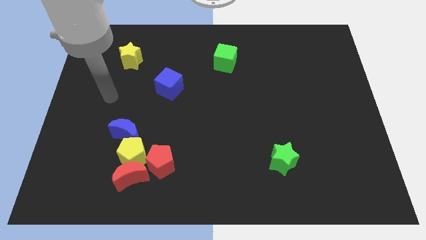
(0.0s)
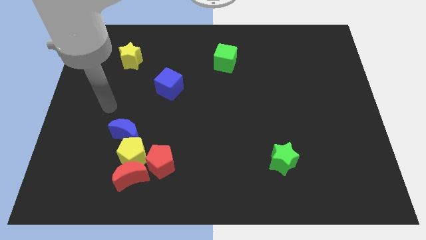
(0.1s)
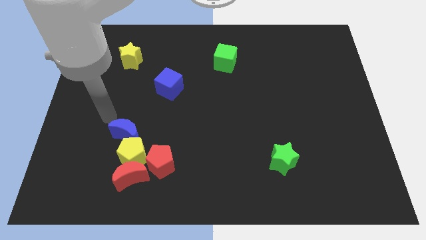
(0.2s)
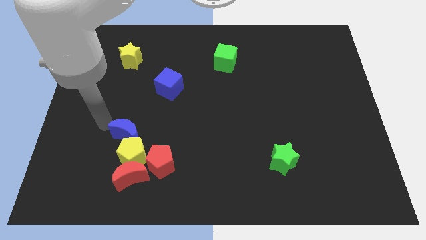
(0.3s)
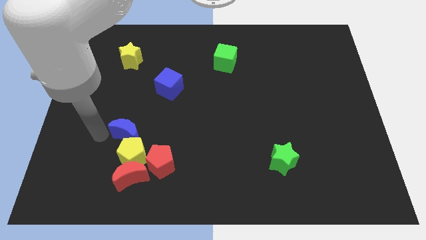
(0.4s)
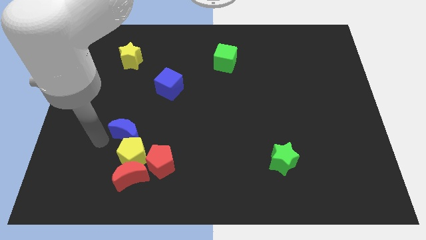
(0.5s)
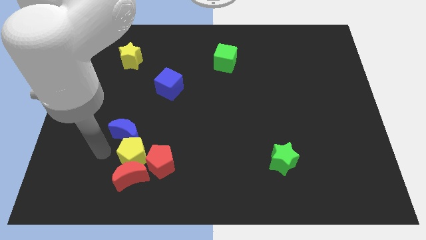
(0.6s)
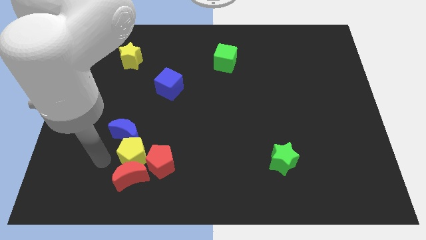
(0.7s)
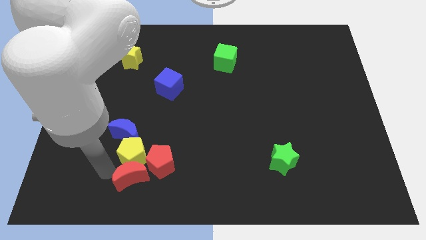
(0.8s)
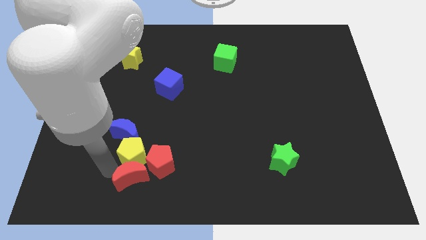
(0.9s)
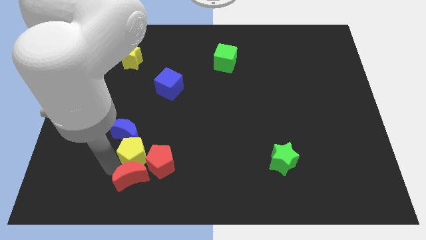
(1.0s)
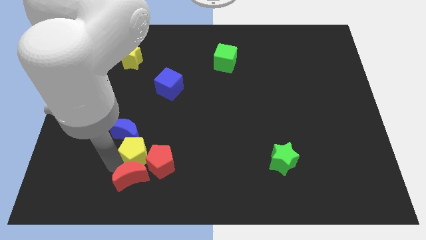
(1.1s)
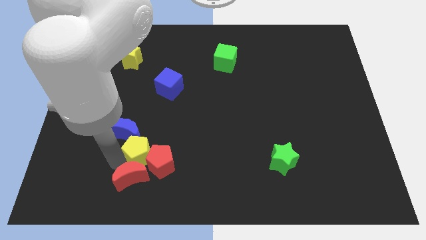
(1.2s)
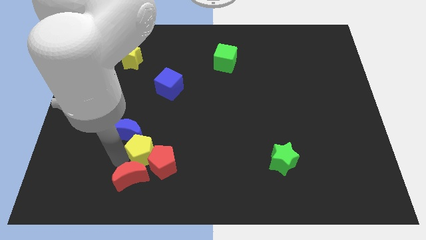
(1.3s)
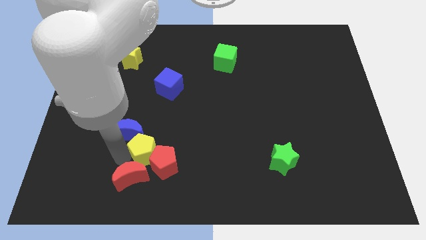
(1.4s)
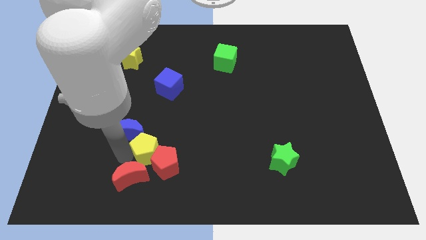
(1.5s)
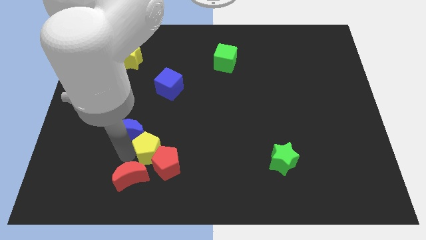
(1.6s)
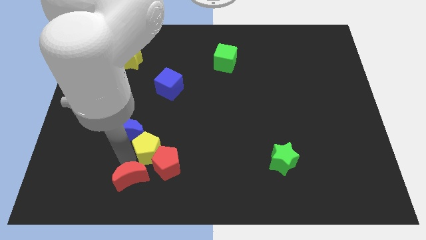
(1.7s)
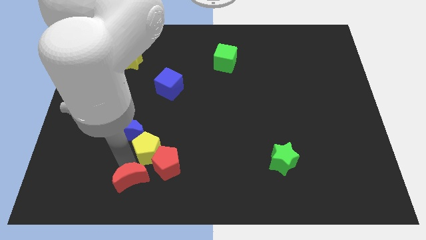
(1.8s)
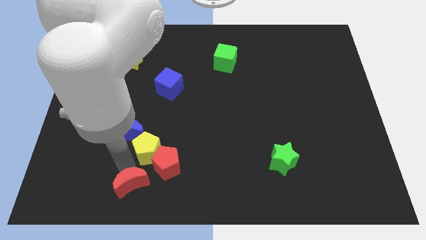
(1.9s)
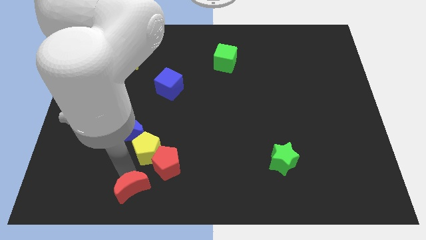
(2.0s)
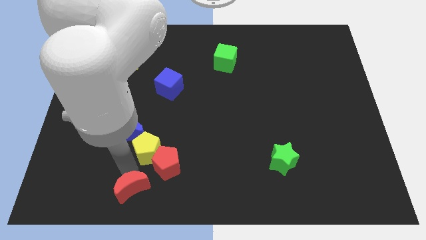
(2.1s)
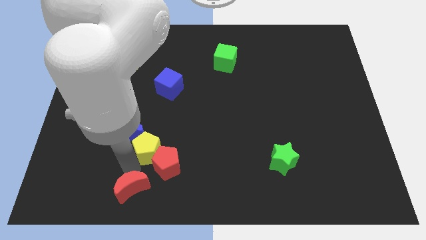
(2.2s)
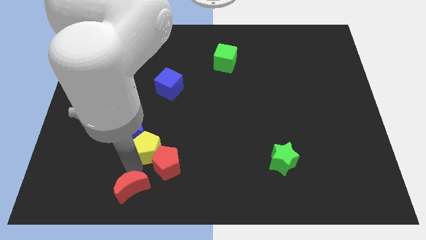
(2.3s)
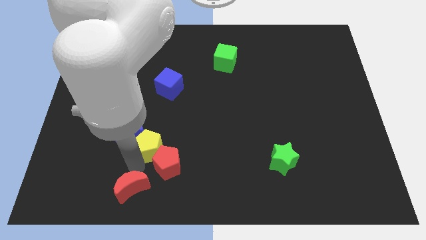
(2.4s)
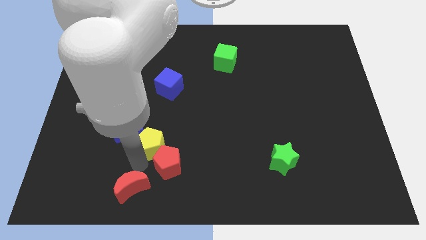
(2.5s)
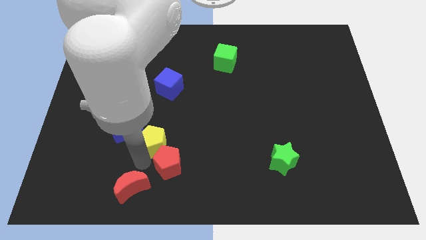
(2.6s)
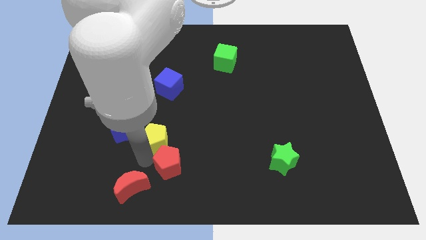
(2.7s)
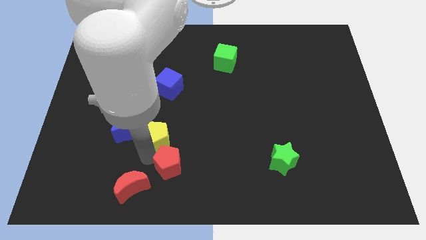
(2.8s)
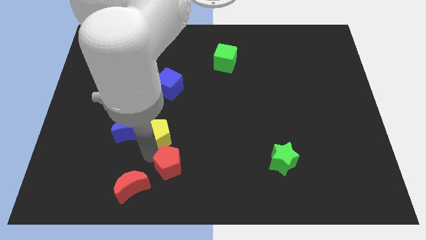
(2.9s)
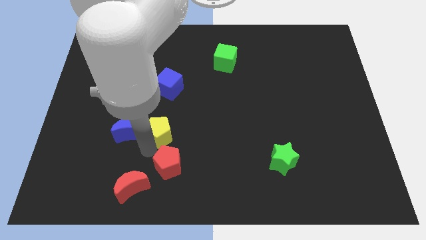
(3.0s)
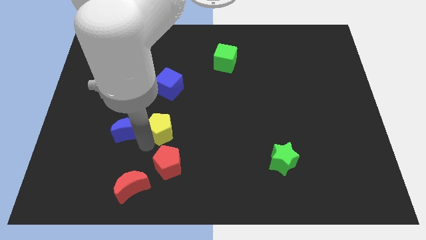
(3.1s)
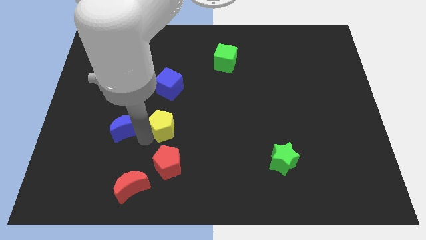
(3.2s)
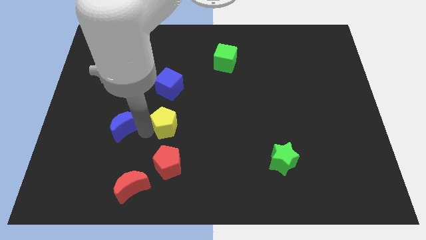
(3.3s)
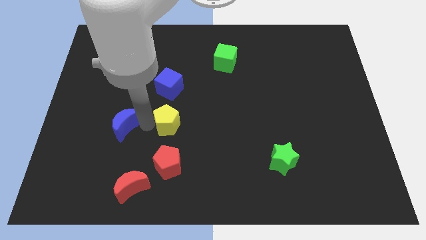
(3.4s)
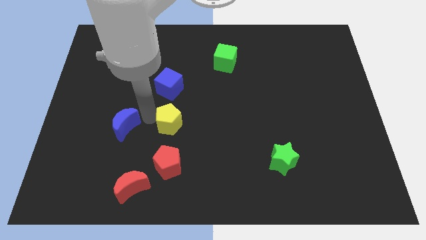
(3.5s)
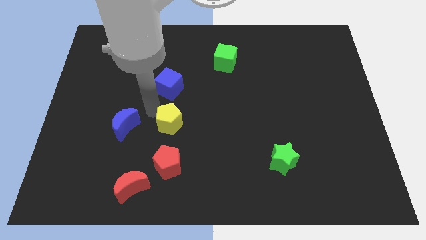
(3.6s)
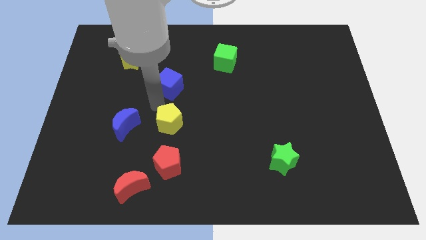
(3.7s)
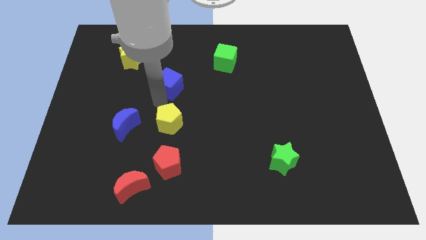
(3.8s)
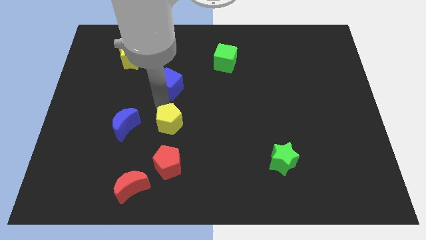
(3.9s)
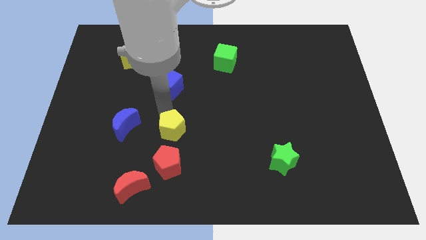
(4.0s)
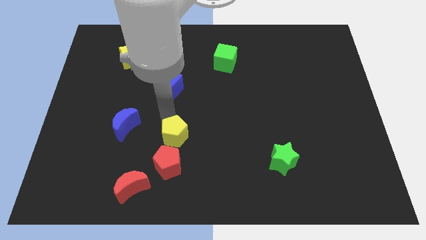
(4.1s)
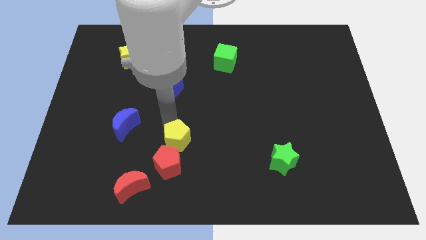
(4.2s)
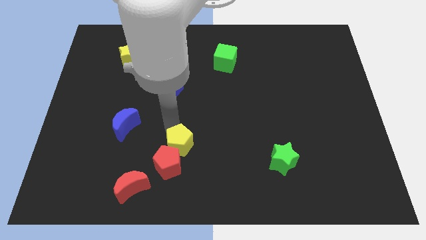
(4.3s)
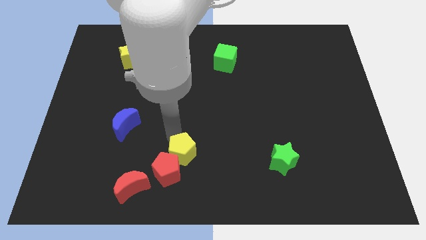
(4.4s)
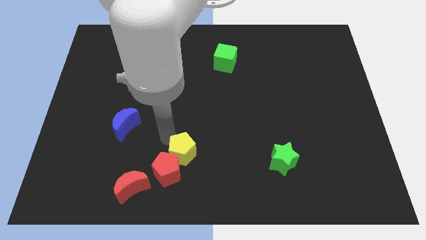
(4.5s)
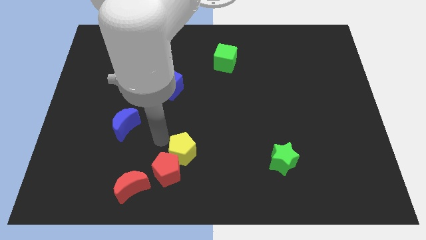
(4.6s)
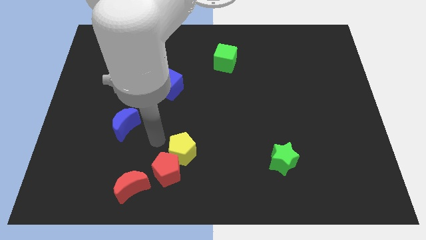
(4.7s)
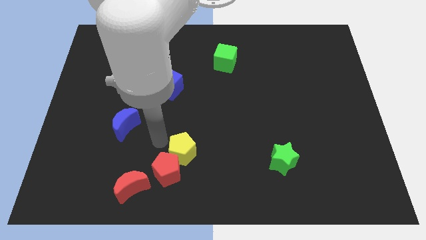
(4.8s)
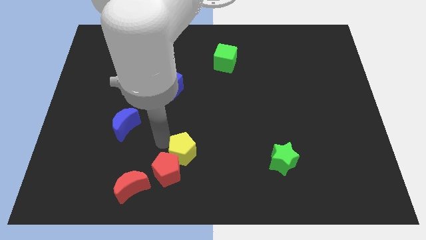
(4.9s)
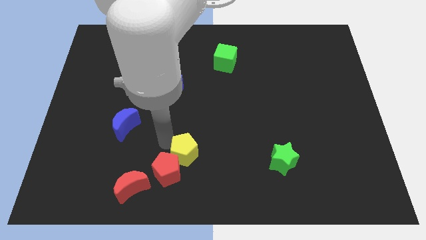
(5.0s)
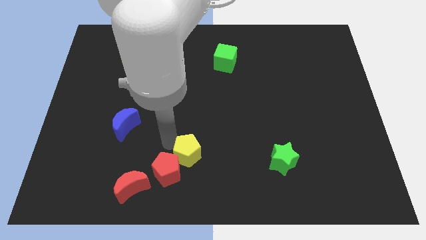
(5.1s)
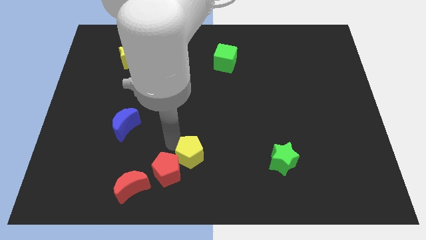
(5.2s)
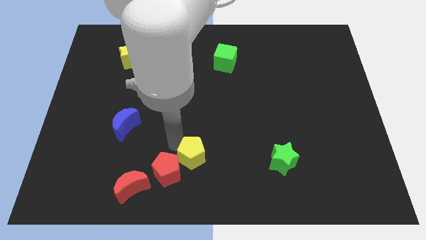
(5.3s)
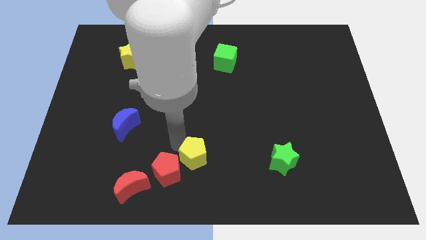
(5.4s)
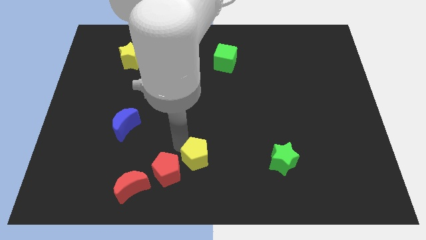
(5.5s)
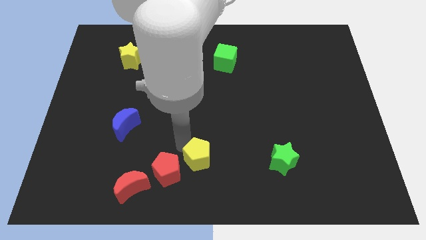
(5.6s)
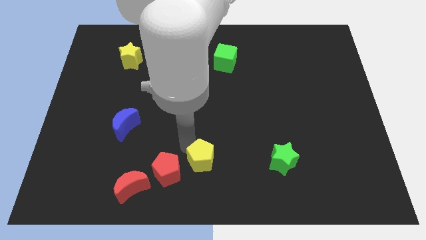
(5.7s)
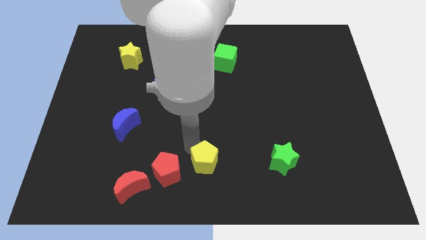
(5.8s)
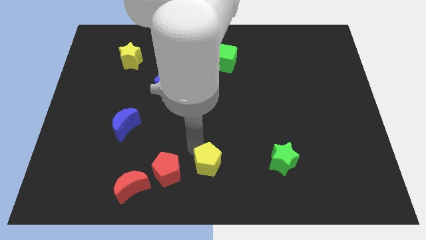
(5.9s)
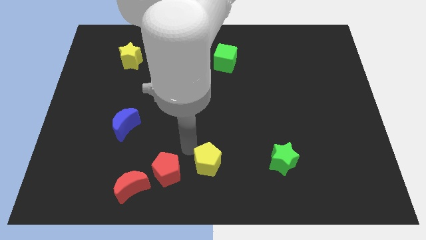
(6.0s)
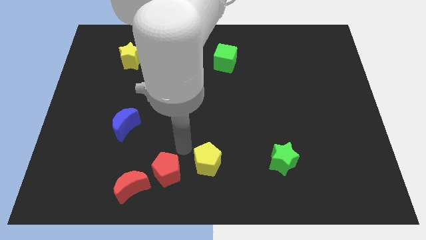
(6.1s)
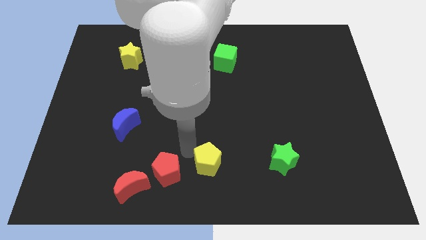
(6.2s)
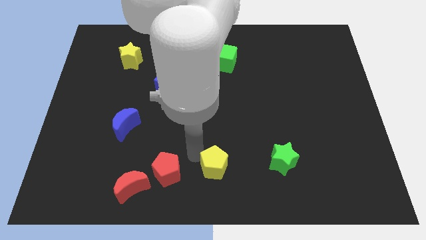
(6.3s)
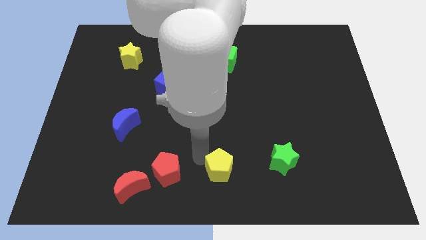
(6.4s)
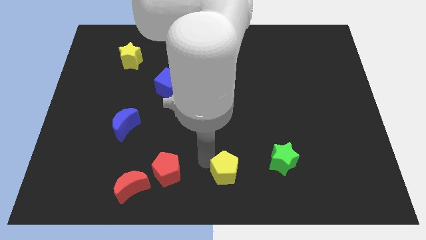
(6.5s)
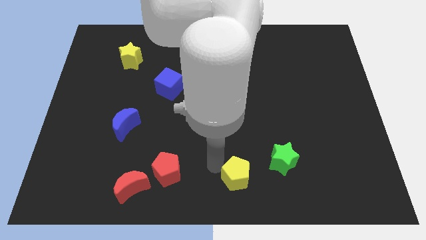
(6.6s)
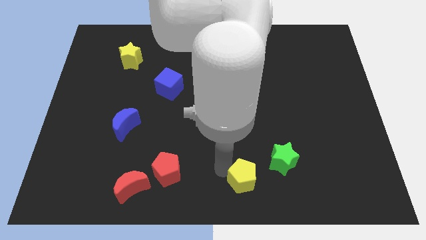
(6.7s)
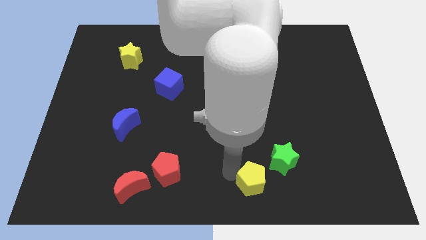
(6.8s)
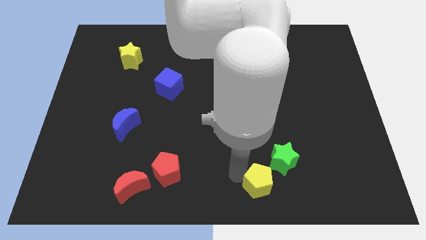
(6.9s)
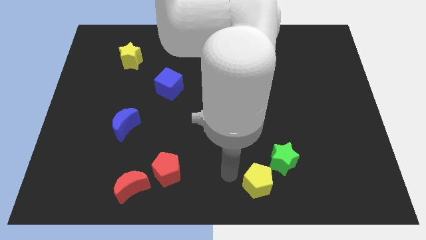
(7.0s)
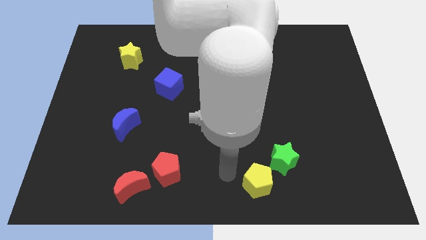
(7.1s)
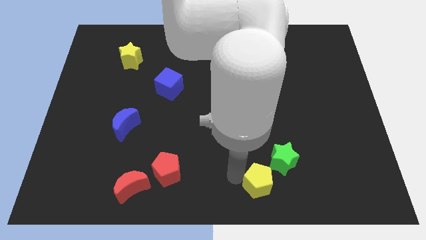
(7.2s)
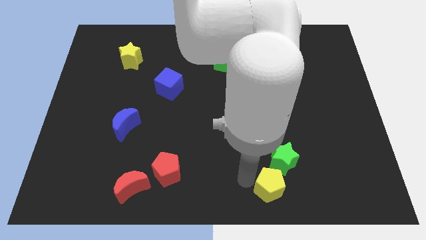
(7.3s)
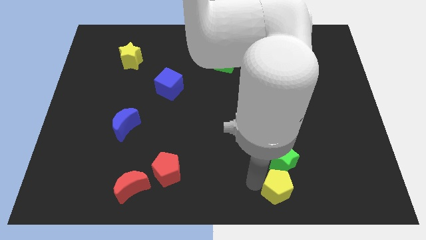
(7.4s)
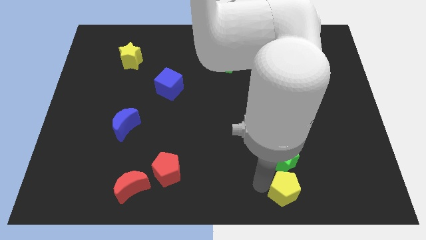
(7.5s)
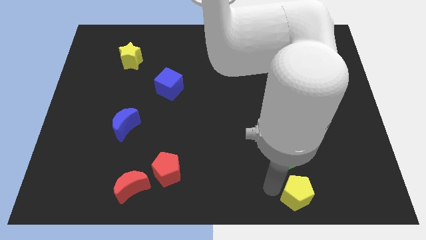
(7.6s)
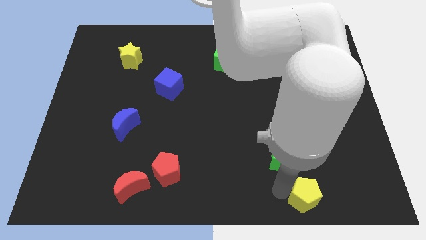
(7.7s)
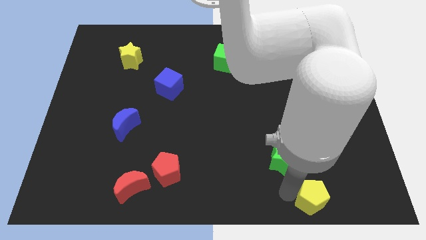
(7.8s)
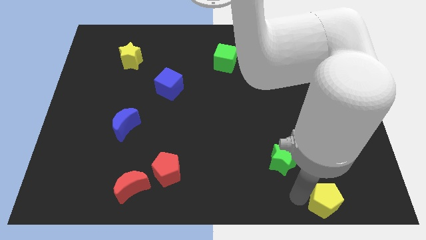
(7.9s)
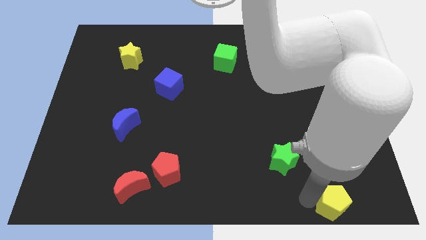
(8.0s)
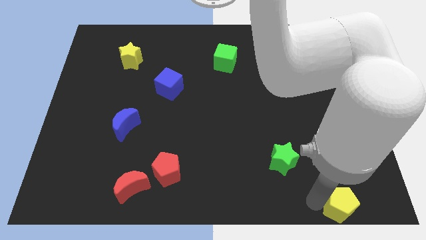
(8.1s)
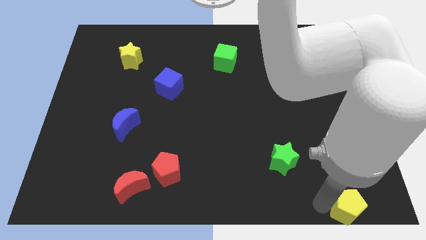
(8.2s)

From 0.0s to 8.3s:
put the yellow pentagon to the bottom right corner
